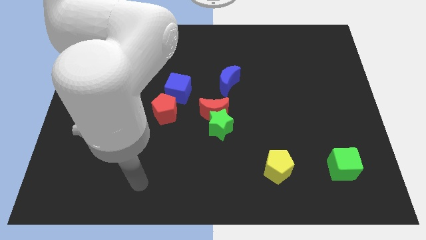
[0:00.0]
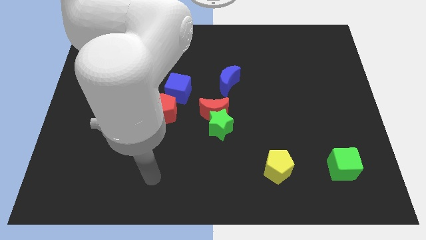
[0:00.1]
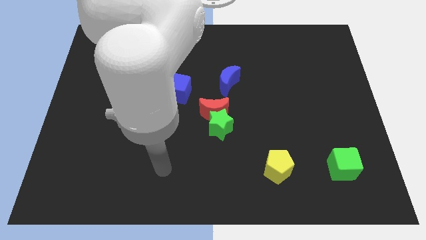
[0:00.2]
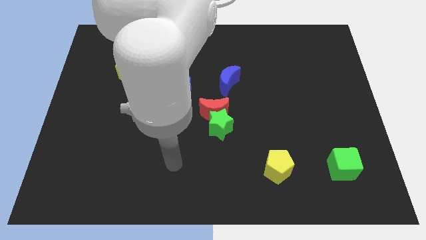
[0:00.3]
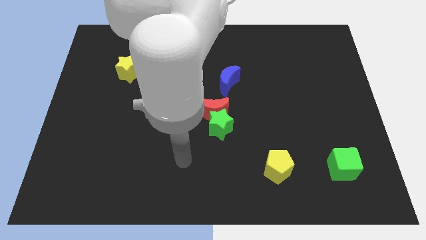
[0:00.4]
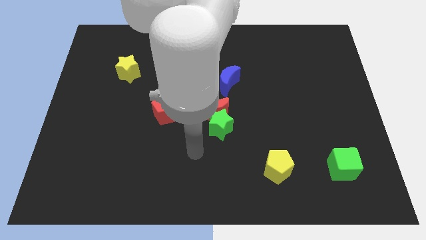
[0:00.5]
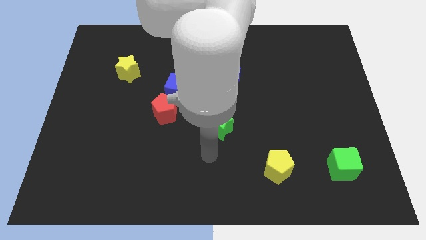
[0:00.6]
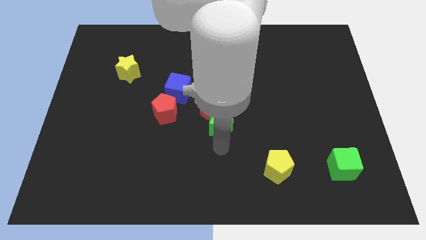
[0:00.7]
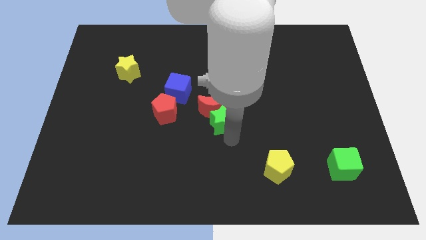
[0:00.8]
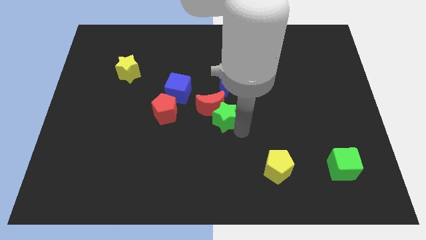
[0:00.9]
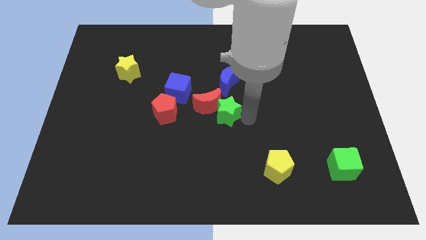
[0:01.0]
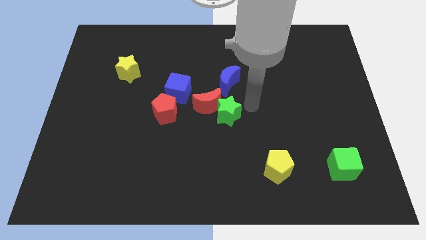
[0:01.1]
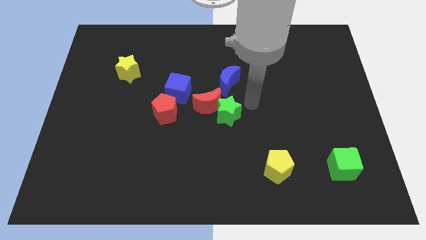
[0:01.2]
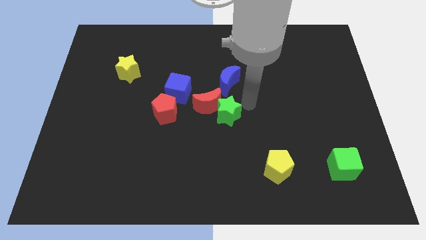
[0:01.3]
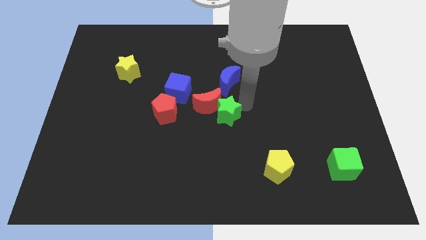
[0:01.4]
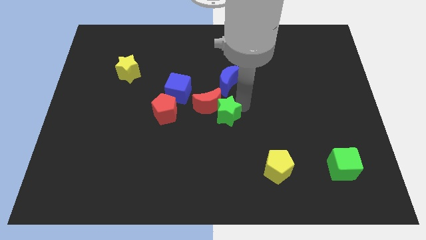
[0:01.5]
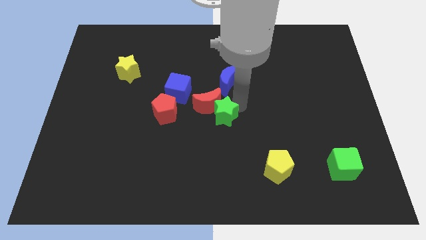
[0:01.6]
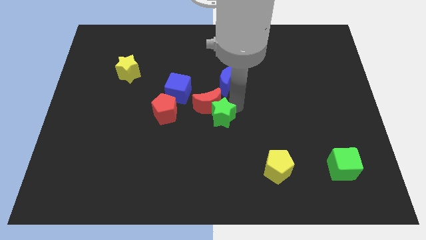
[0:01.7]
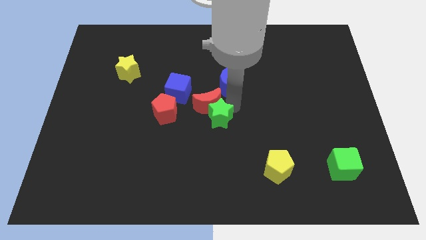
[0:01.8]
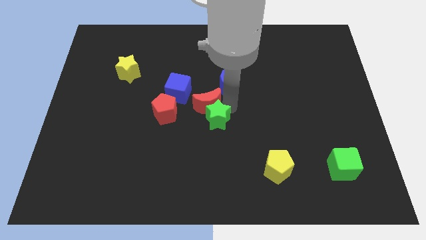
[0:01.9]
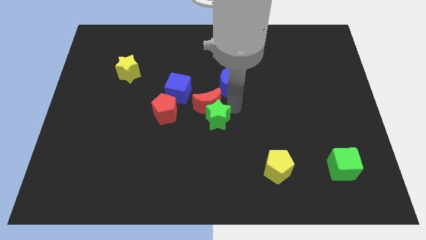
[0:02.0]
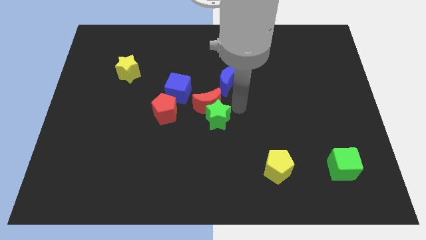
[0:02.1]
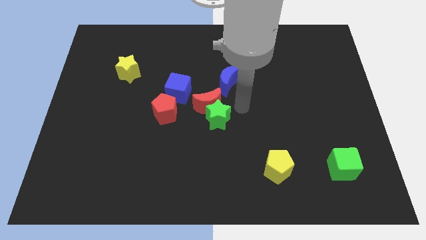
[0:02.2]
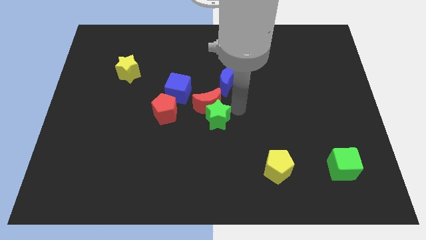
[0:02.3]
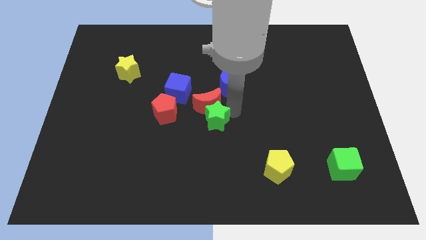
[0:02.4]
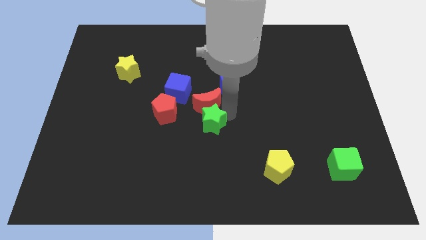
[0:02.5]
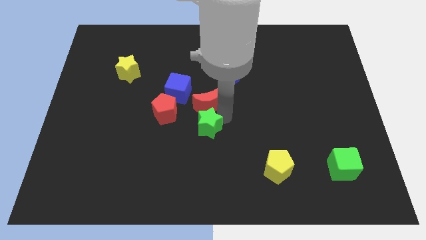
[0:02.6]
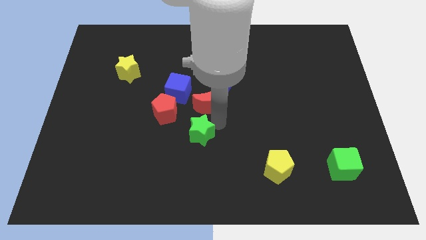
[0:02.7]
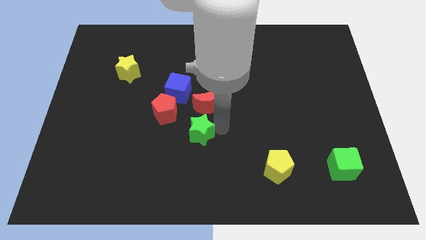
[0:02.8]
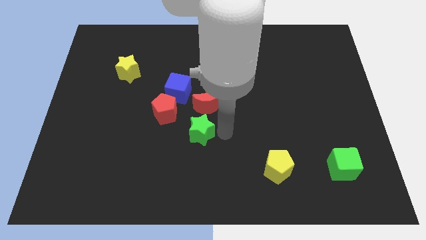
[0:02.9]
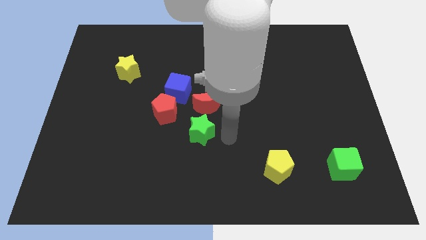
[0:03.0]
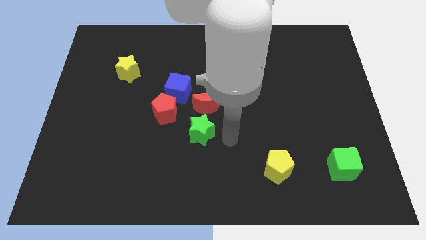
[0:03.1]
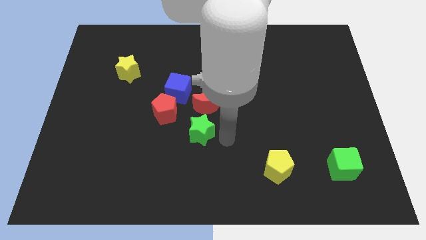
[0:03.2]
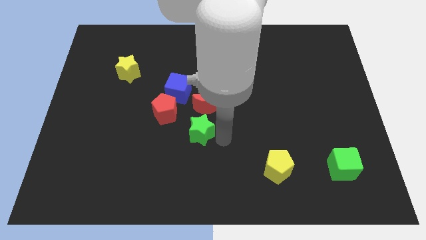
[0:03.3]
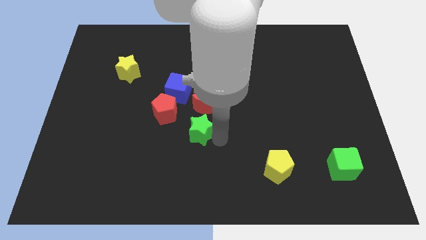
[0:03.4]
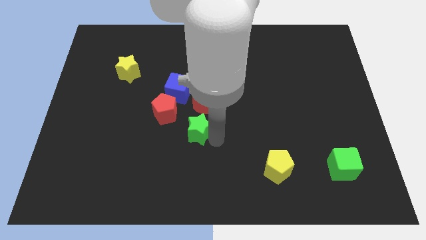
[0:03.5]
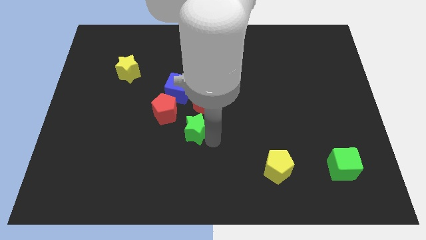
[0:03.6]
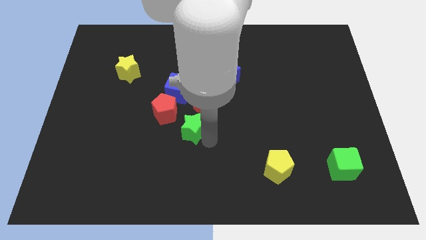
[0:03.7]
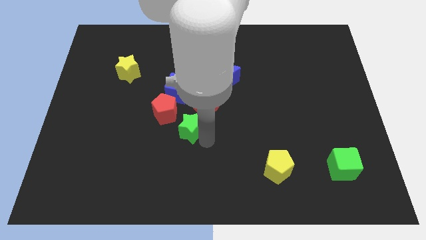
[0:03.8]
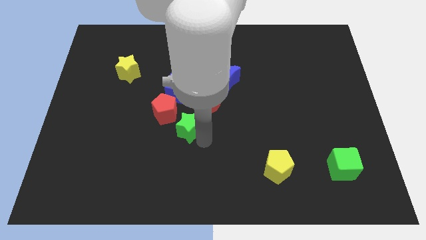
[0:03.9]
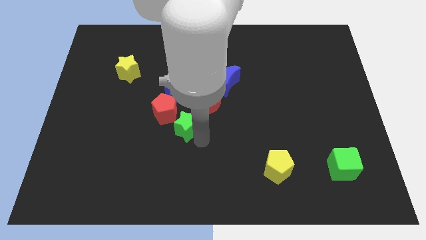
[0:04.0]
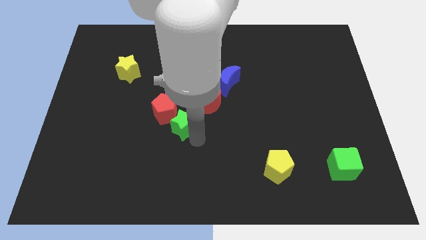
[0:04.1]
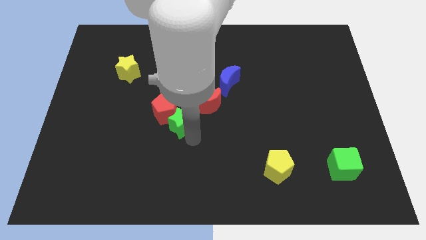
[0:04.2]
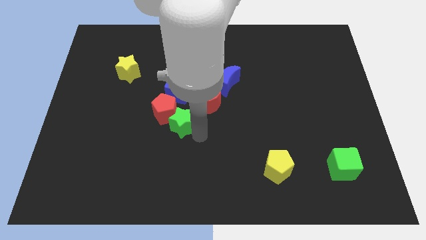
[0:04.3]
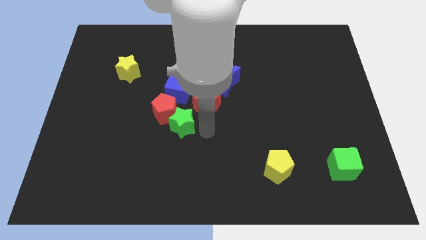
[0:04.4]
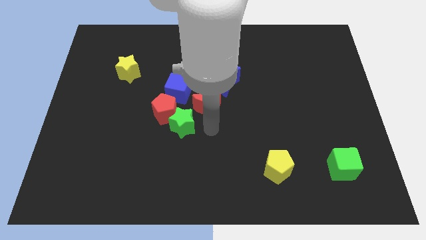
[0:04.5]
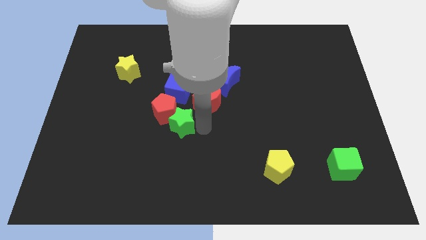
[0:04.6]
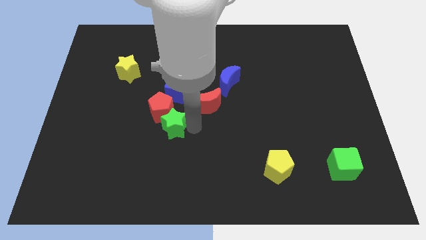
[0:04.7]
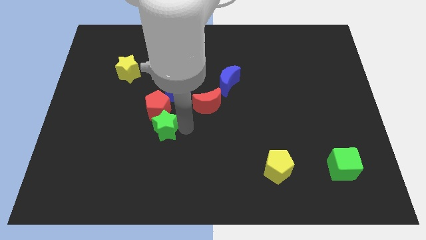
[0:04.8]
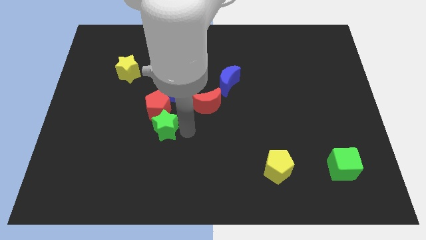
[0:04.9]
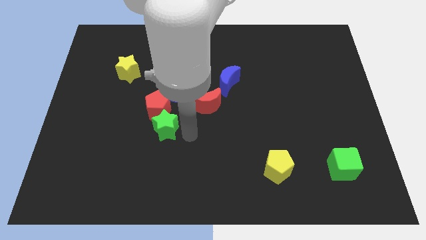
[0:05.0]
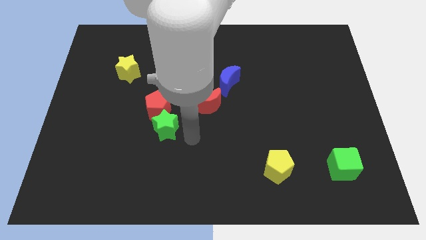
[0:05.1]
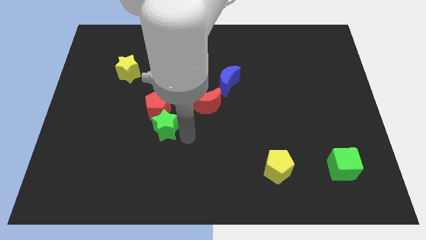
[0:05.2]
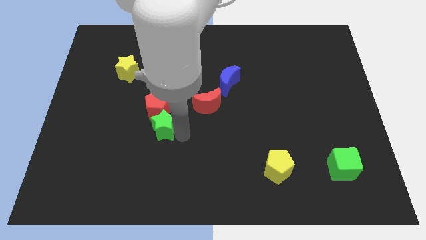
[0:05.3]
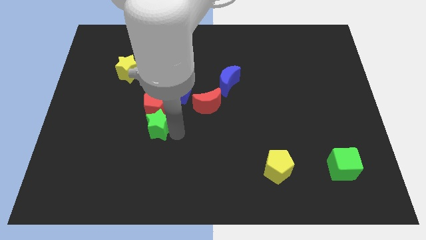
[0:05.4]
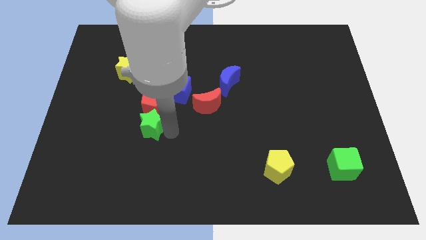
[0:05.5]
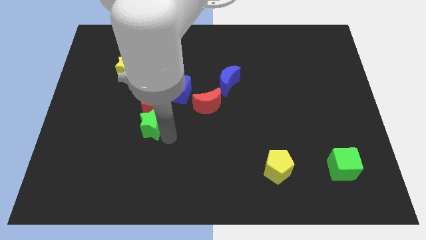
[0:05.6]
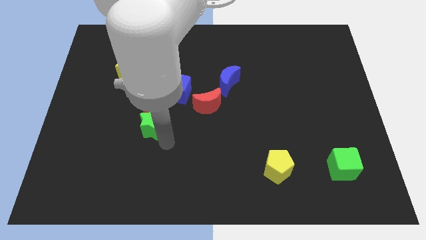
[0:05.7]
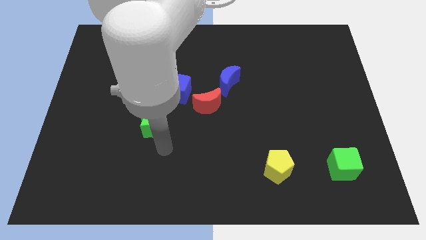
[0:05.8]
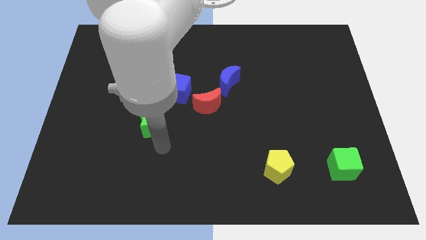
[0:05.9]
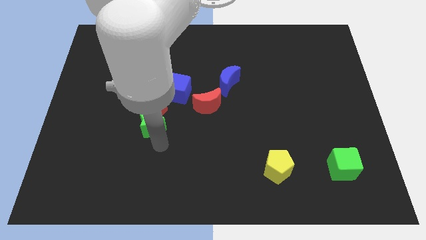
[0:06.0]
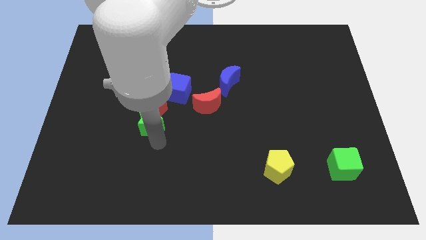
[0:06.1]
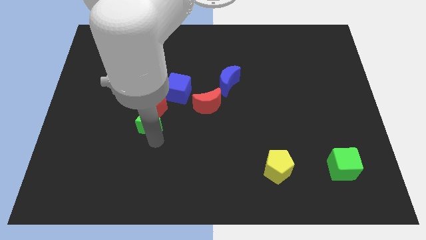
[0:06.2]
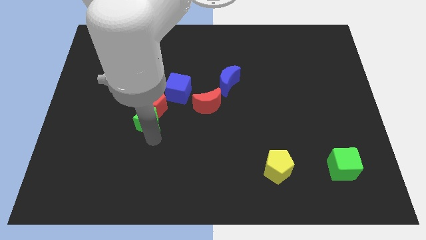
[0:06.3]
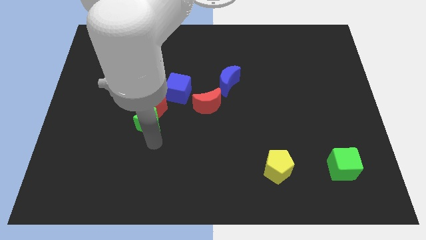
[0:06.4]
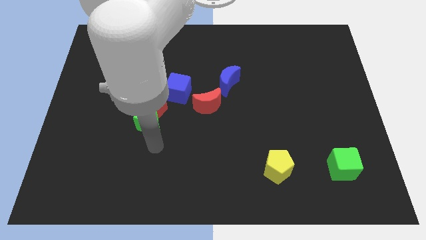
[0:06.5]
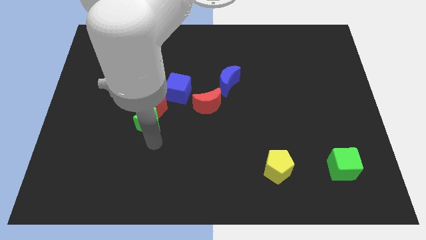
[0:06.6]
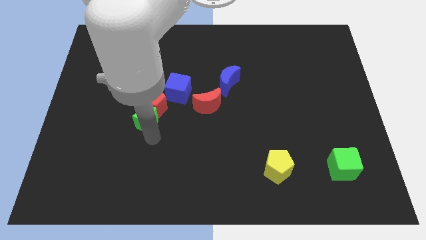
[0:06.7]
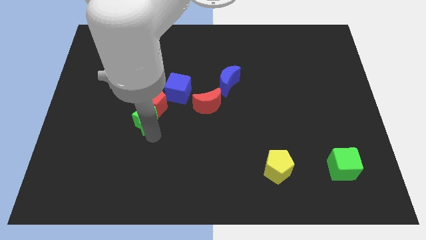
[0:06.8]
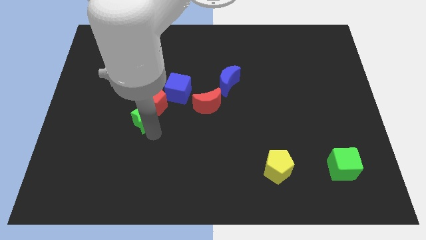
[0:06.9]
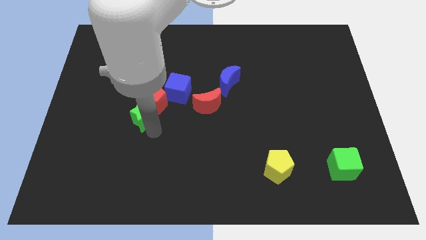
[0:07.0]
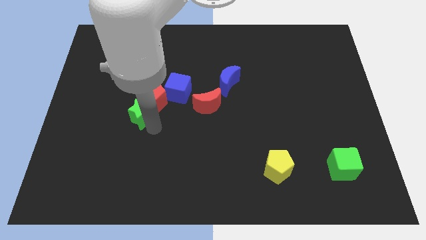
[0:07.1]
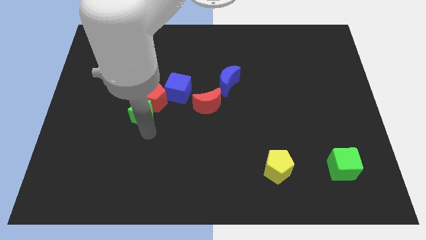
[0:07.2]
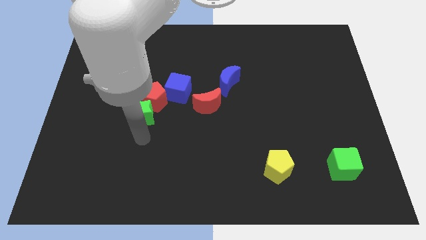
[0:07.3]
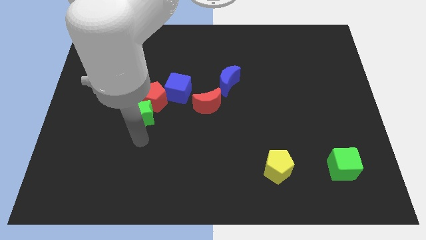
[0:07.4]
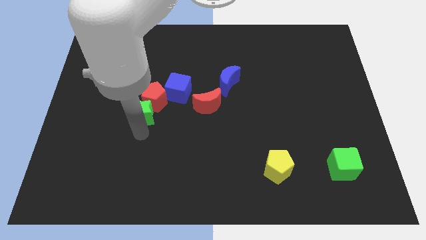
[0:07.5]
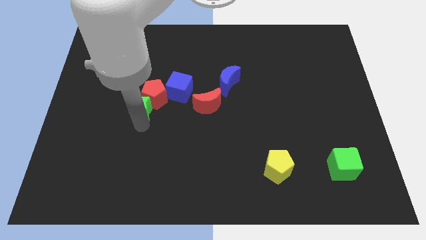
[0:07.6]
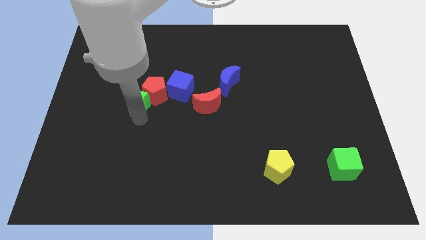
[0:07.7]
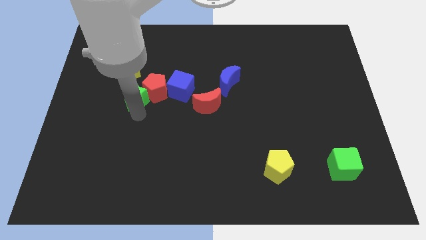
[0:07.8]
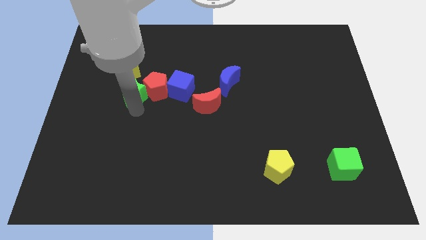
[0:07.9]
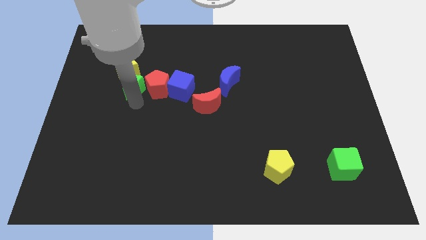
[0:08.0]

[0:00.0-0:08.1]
push the green star towards the yellow star
